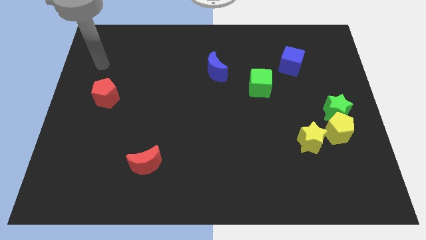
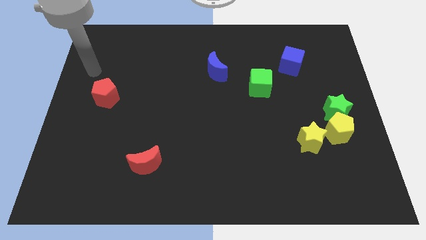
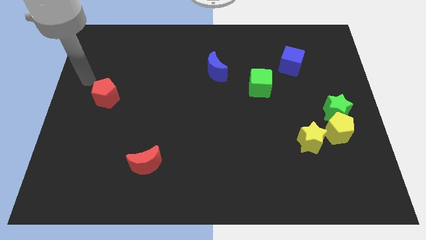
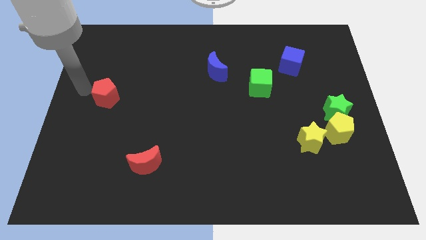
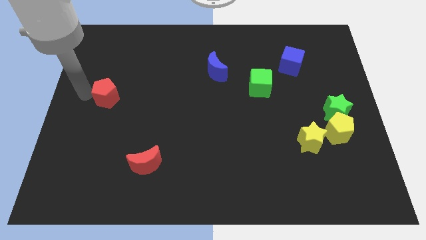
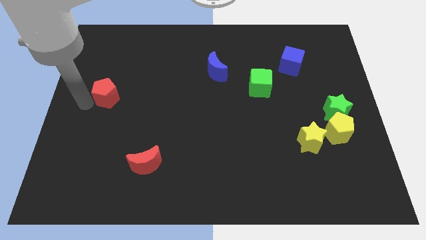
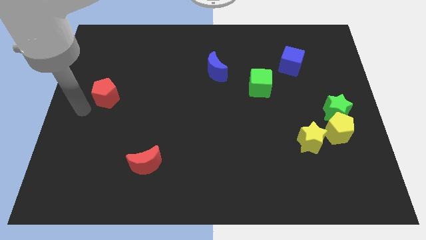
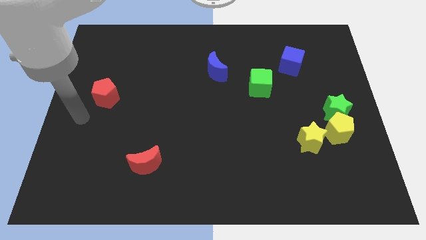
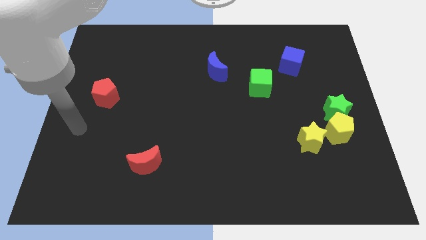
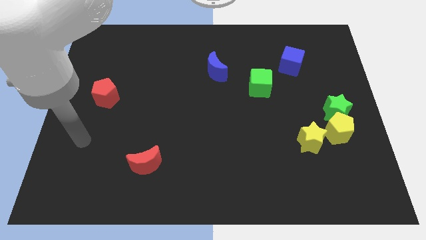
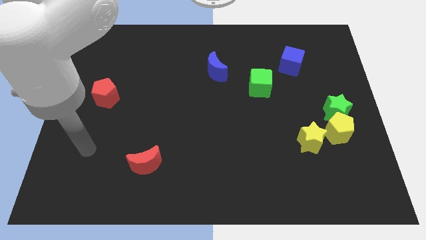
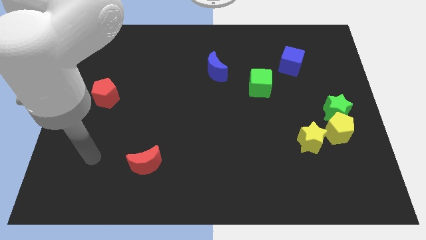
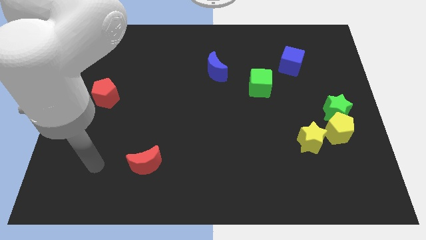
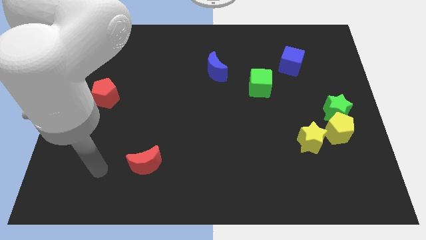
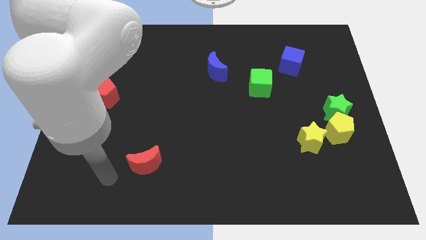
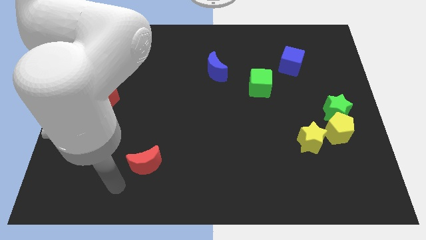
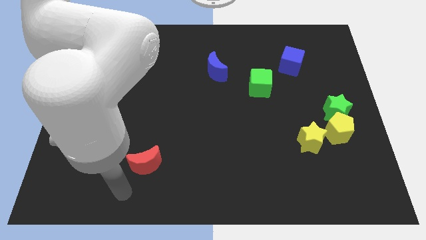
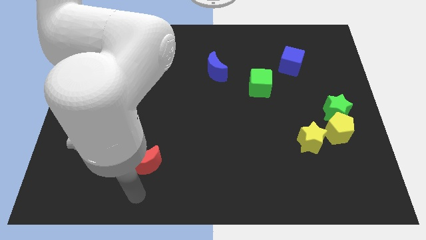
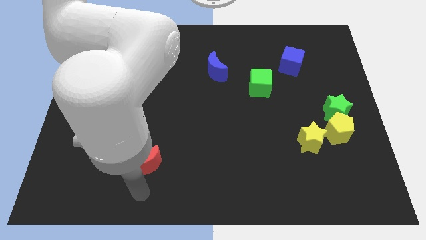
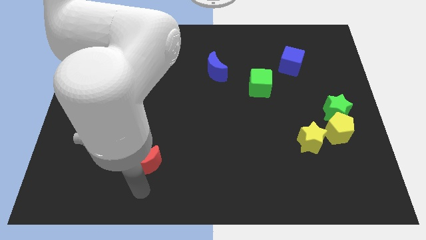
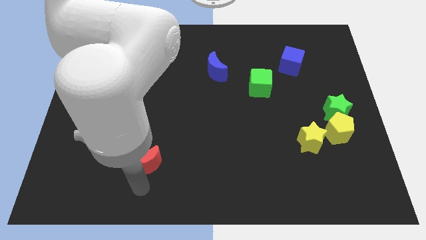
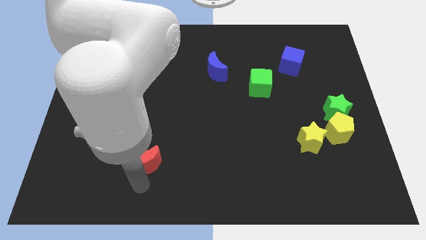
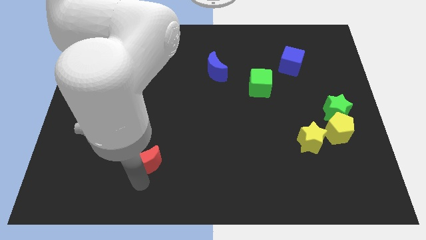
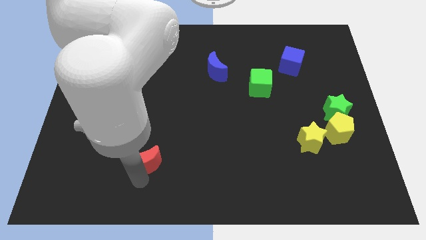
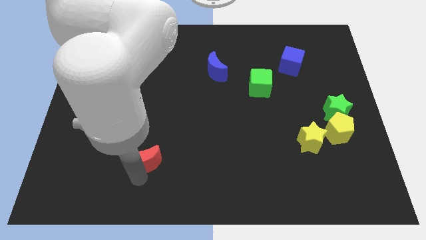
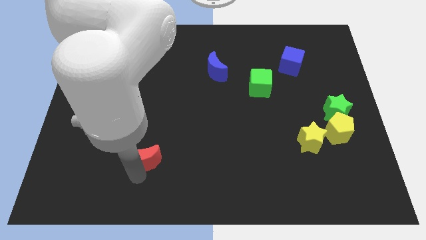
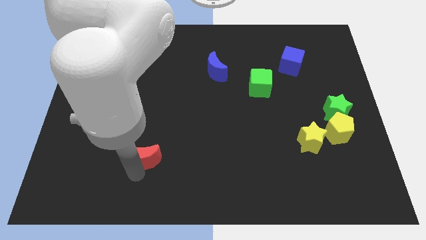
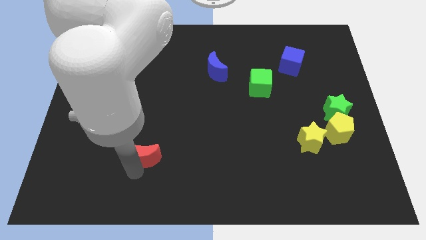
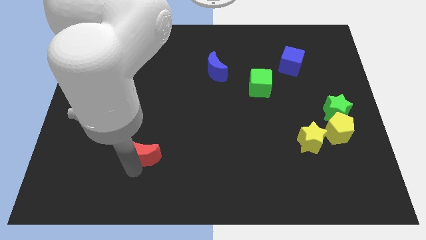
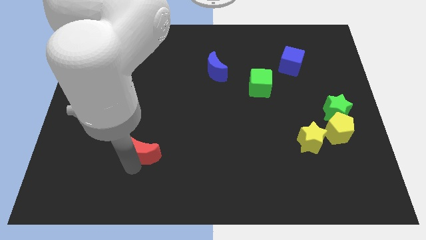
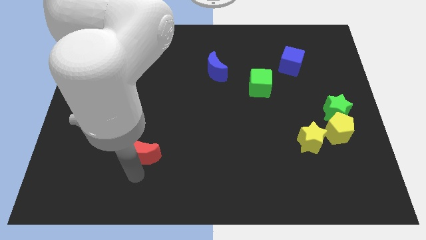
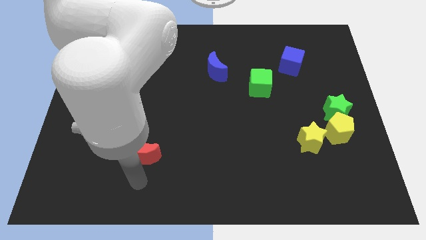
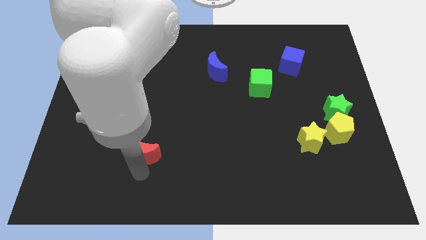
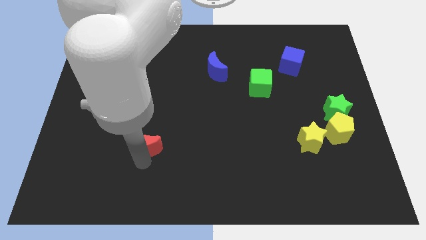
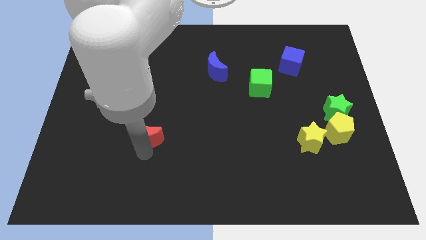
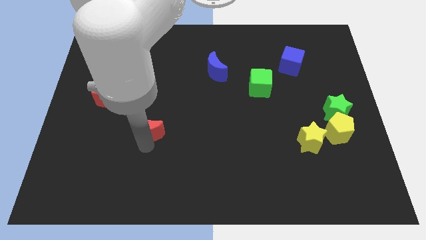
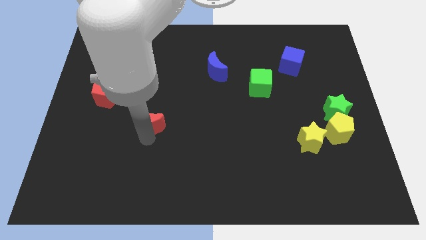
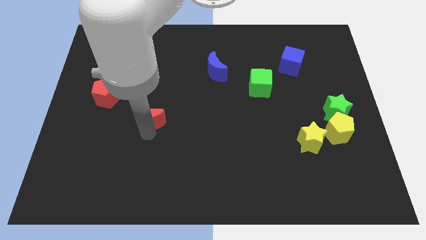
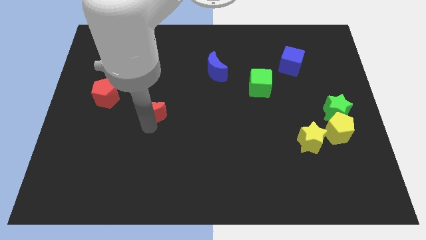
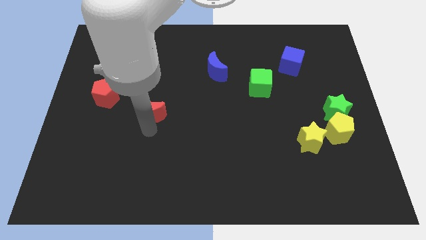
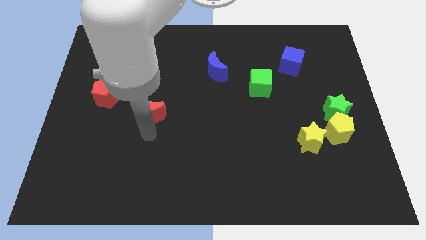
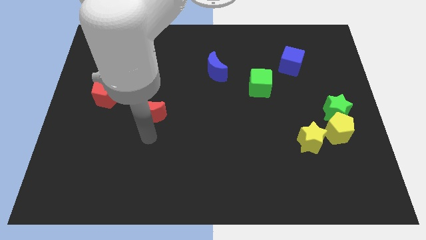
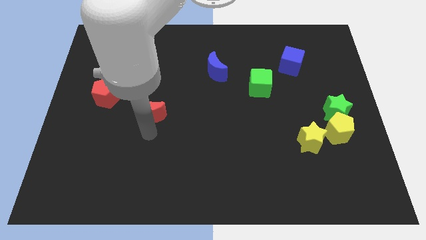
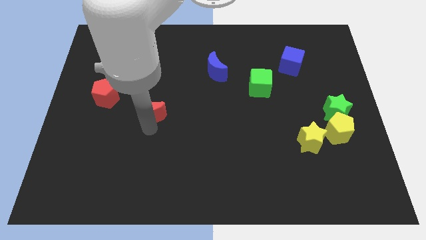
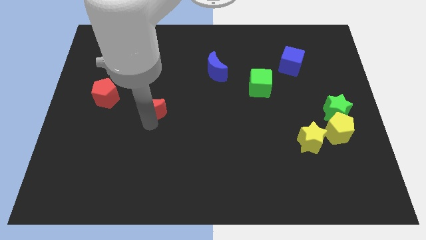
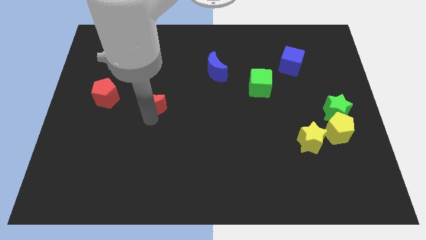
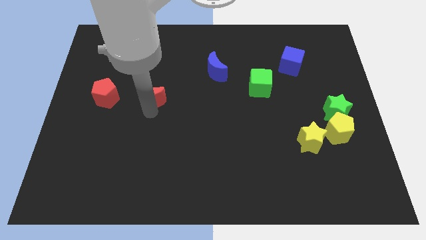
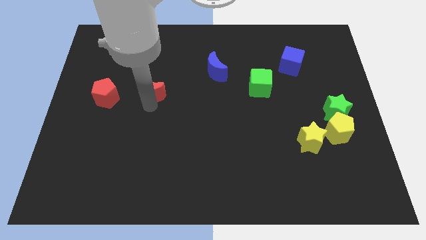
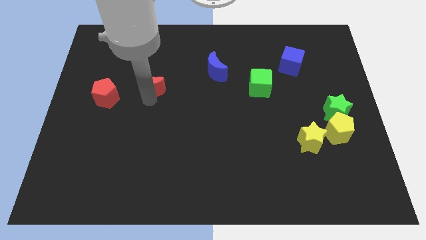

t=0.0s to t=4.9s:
push the red moon upwards

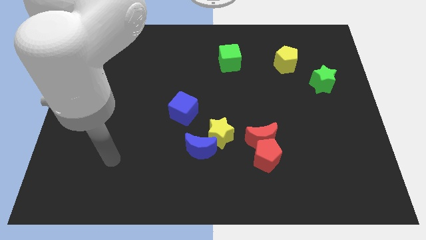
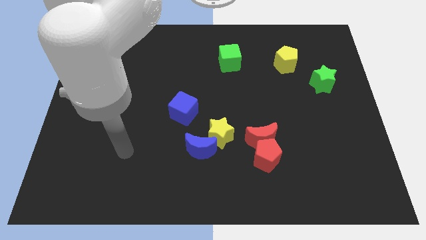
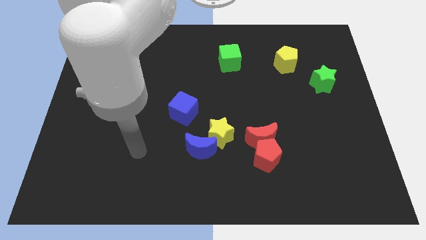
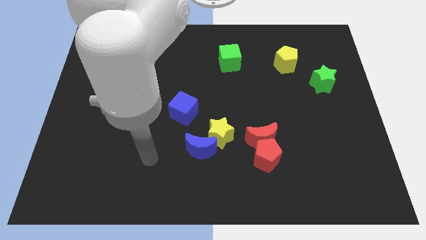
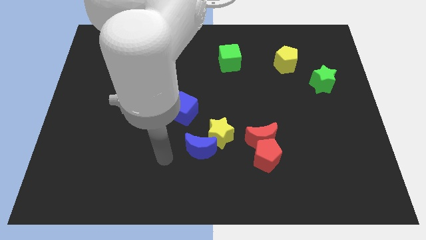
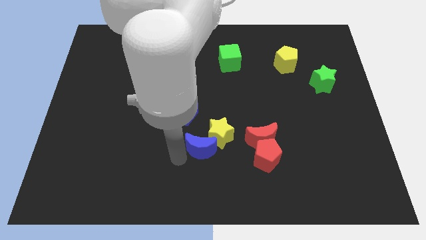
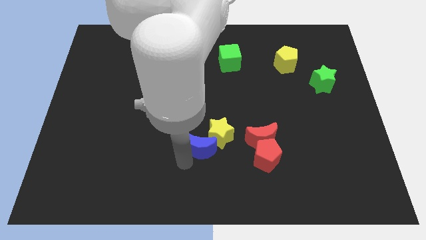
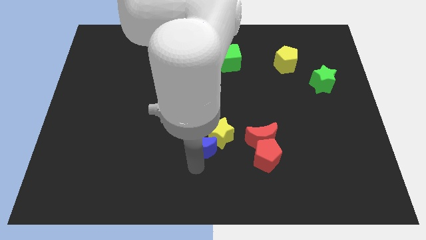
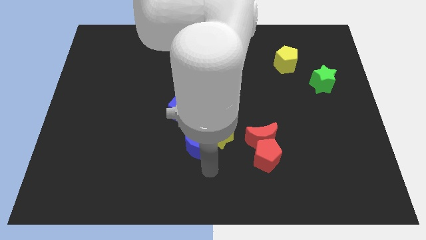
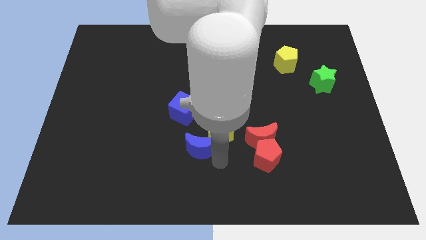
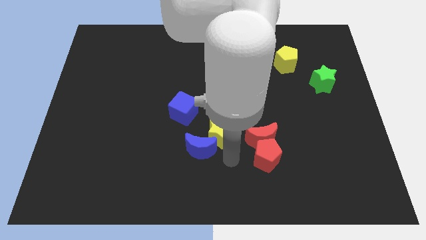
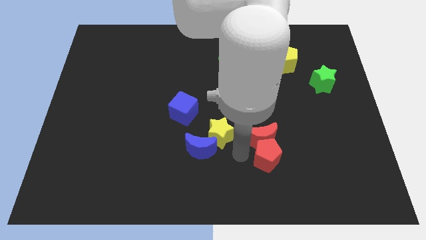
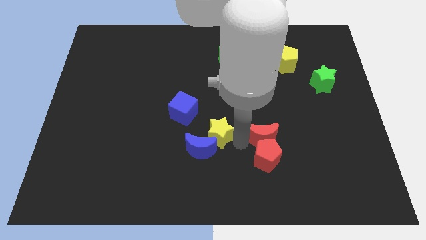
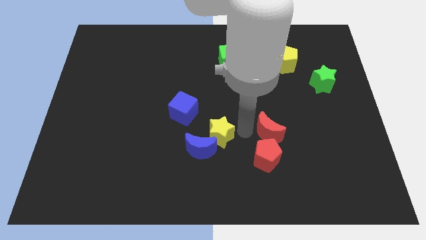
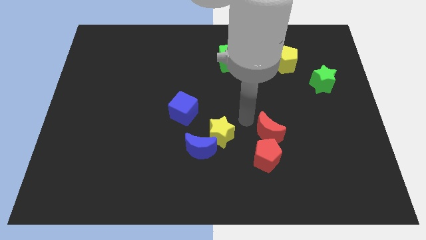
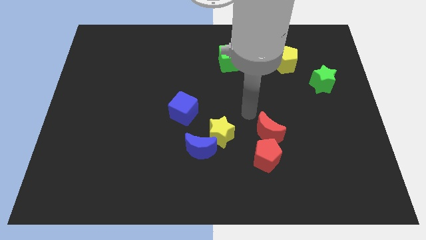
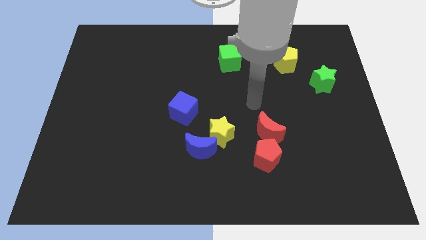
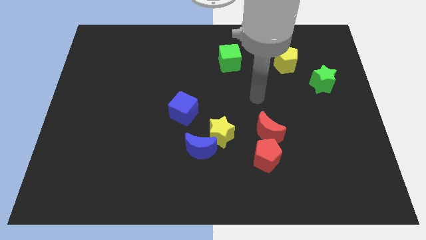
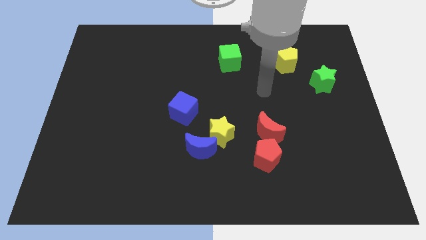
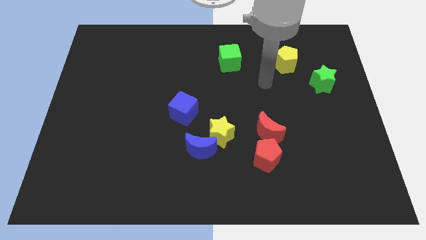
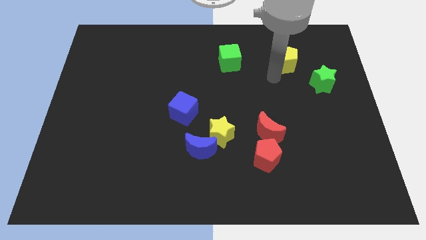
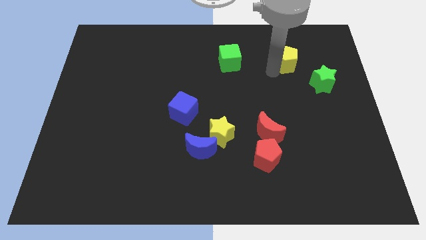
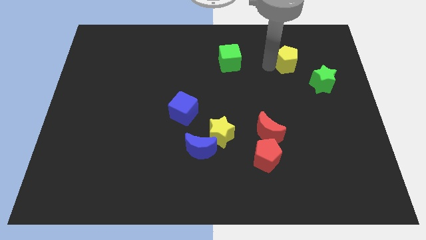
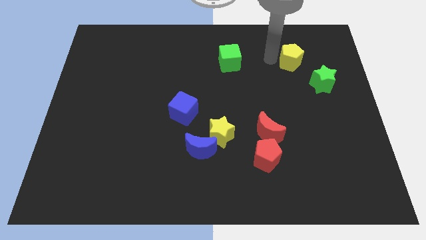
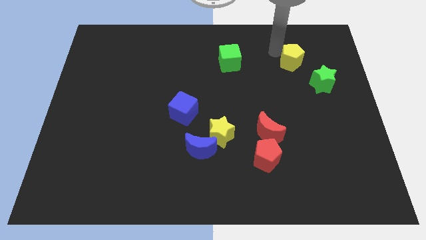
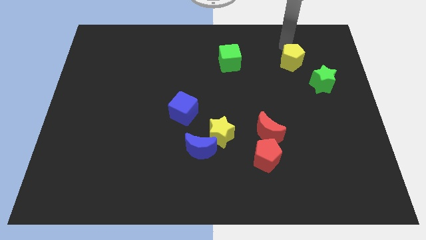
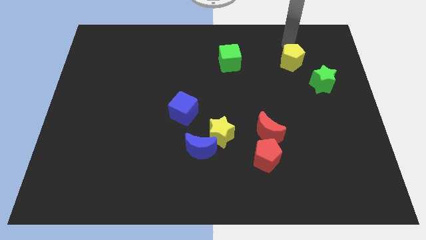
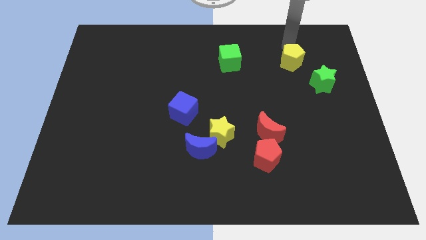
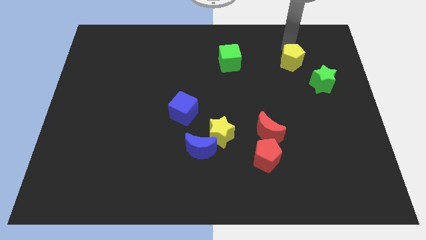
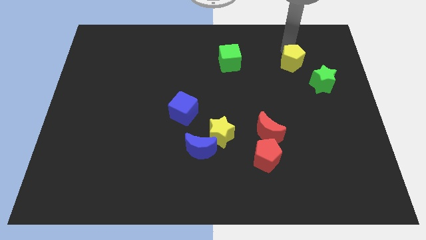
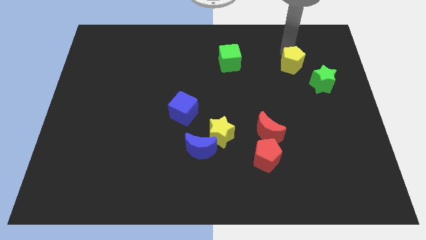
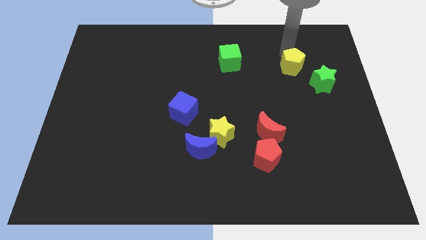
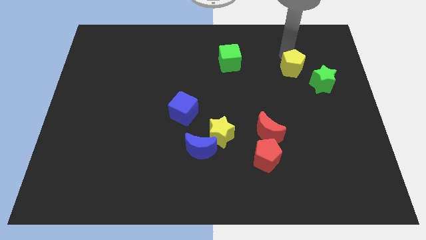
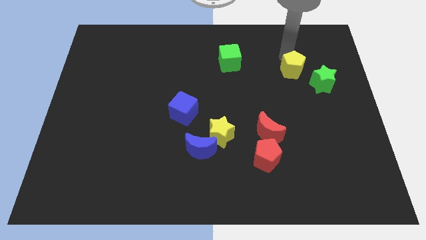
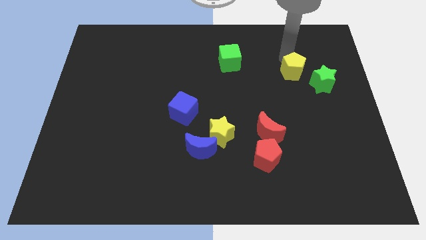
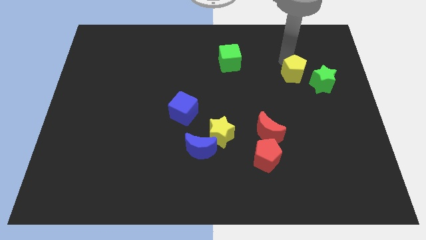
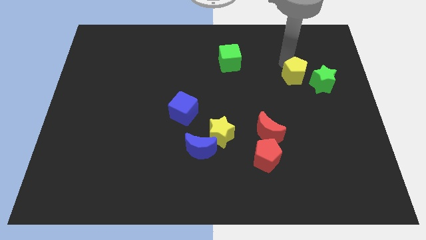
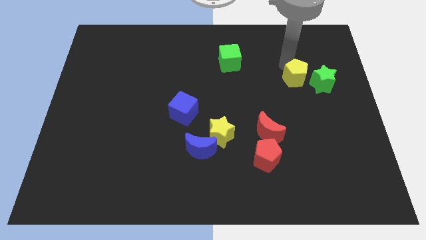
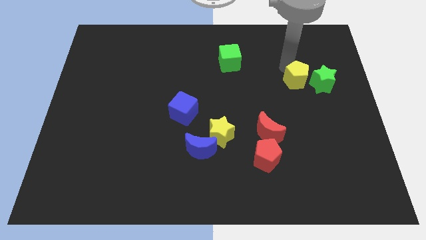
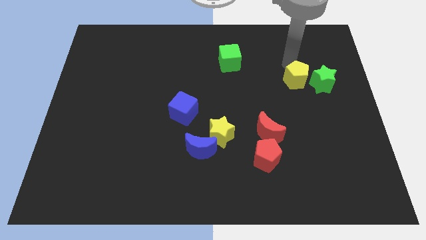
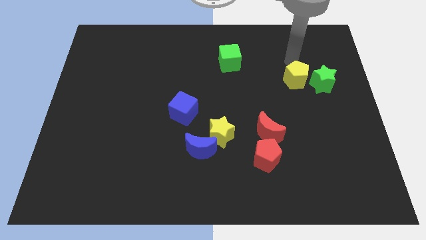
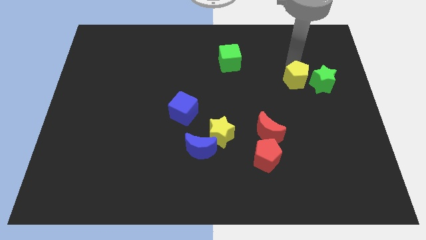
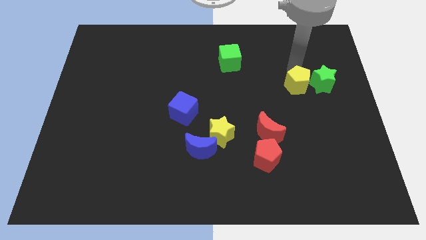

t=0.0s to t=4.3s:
slightly slide the yellow pentagon downwards
